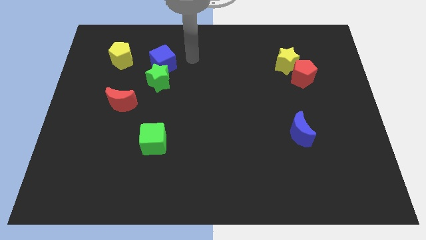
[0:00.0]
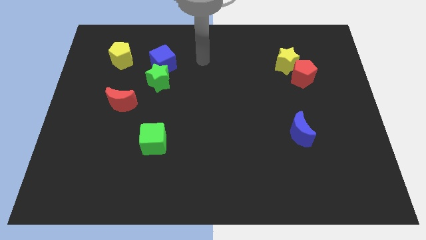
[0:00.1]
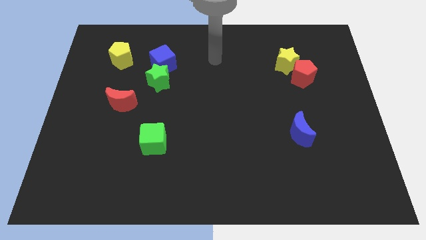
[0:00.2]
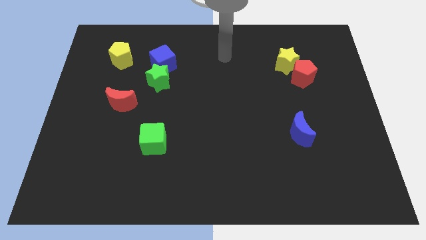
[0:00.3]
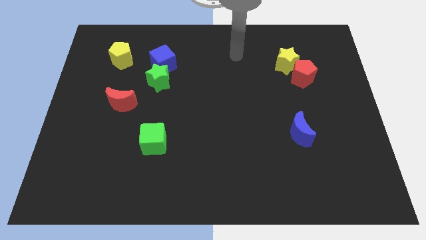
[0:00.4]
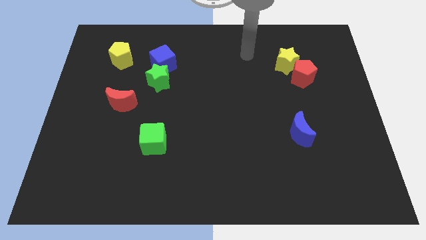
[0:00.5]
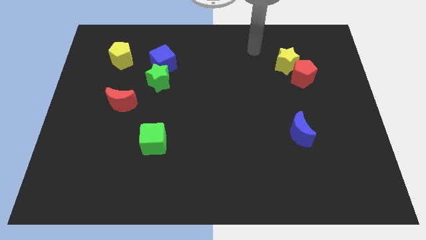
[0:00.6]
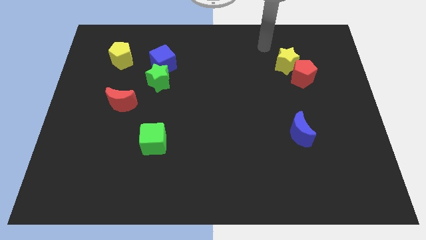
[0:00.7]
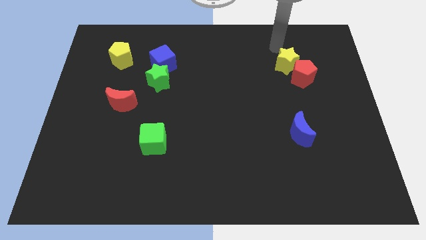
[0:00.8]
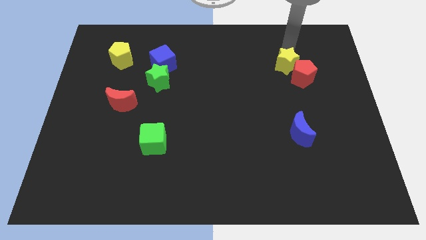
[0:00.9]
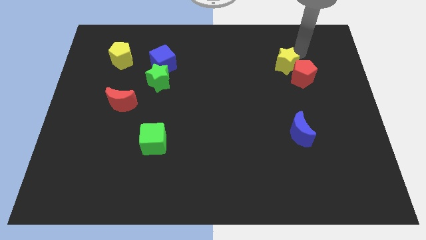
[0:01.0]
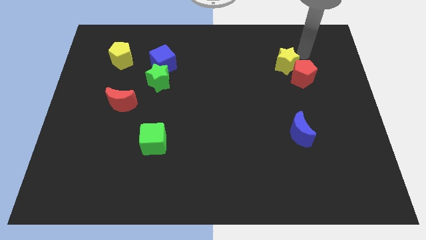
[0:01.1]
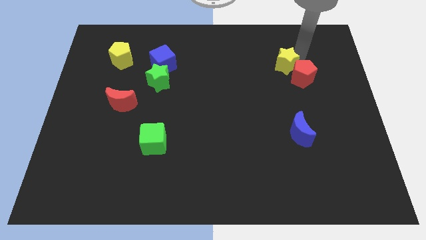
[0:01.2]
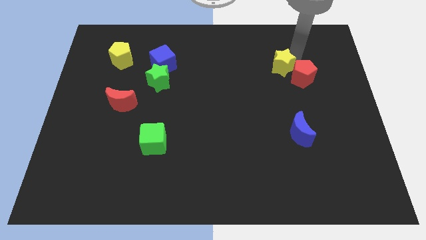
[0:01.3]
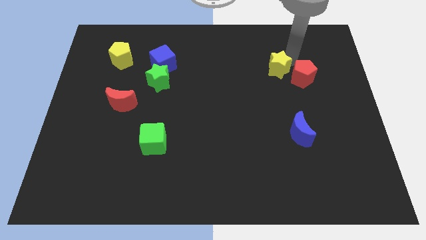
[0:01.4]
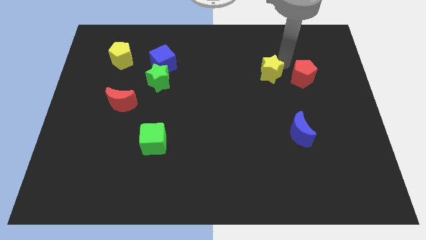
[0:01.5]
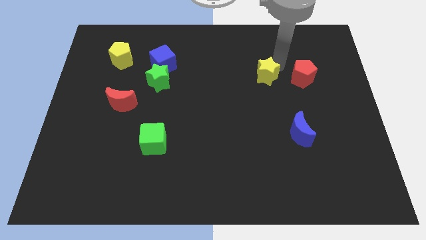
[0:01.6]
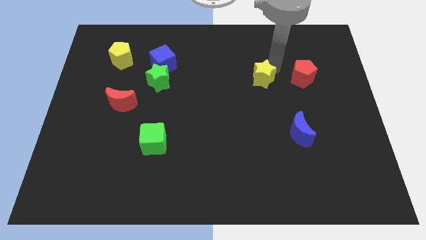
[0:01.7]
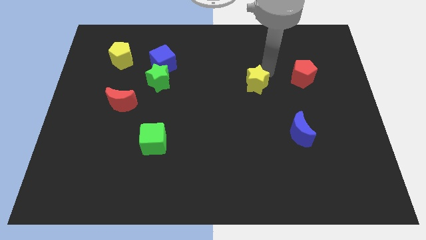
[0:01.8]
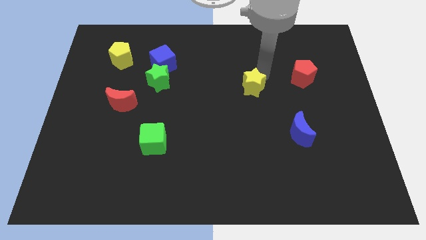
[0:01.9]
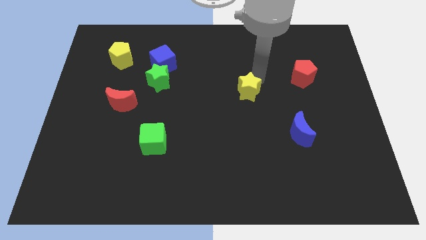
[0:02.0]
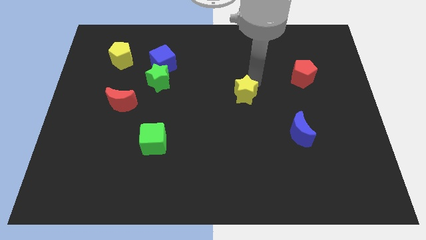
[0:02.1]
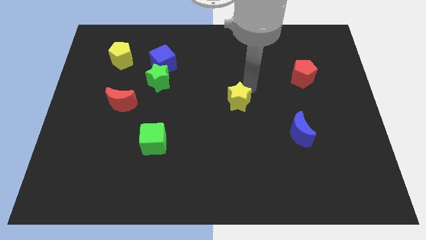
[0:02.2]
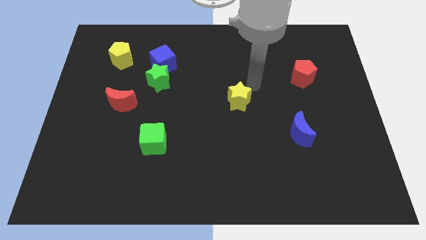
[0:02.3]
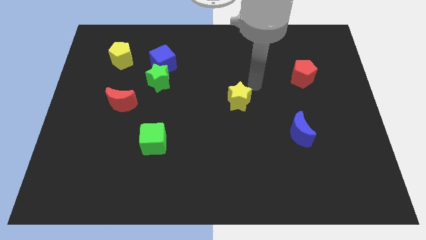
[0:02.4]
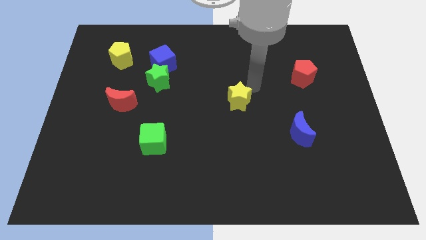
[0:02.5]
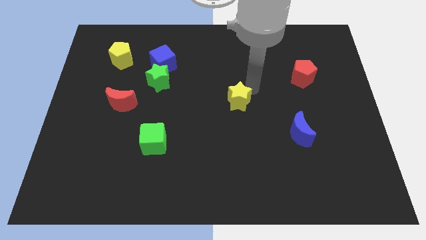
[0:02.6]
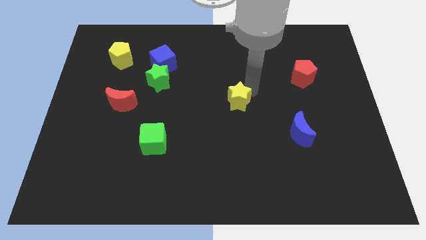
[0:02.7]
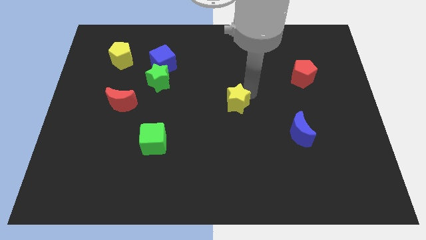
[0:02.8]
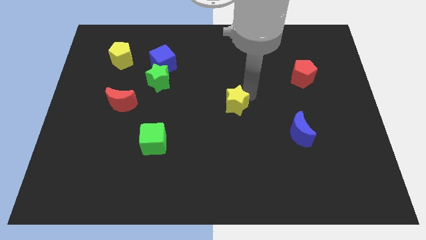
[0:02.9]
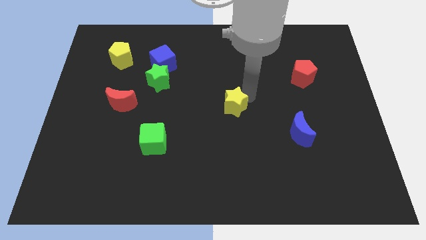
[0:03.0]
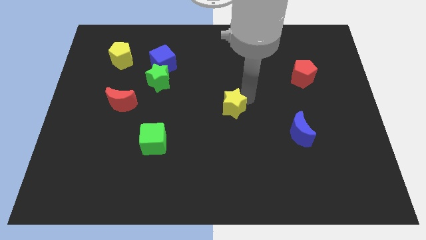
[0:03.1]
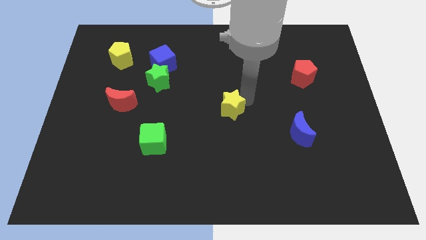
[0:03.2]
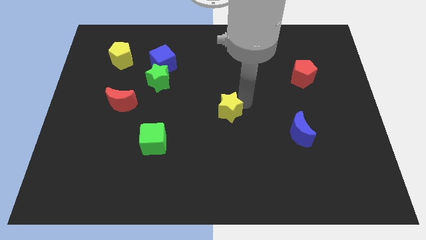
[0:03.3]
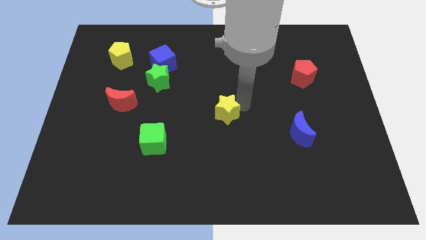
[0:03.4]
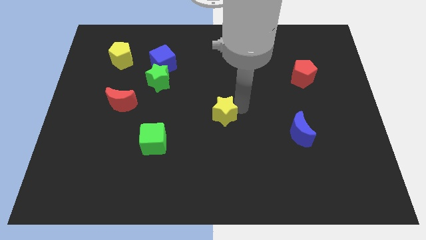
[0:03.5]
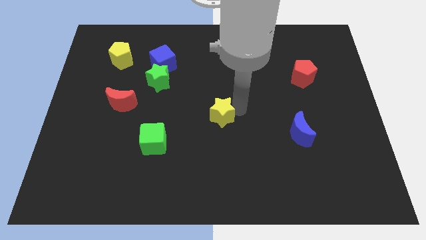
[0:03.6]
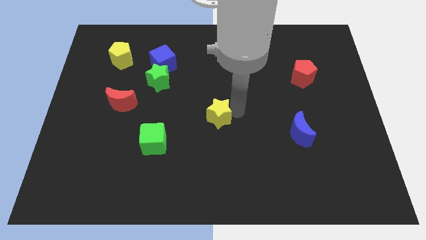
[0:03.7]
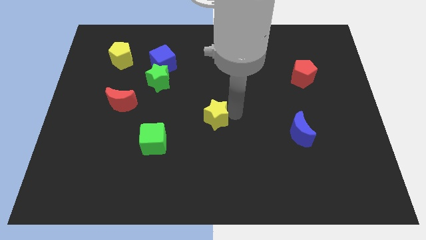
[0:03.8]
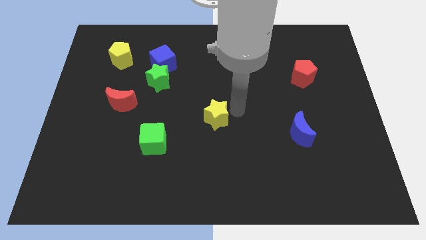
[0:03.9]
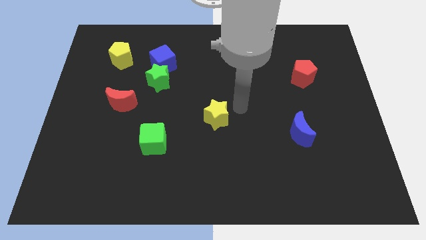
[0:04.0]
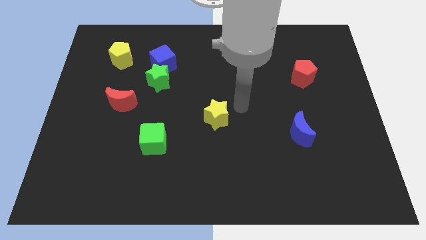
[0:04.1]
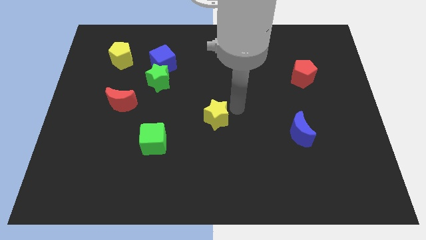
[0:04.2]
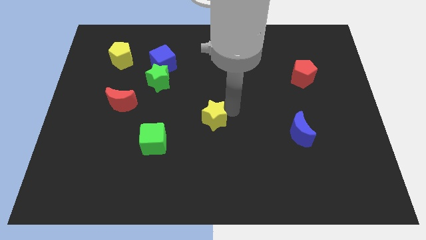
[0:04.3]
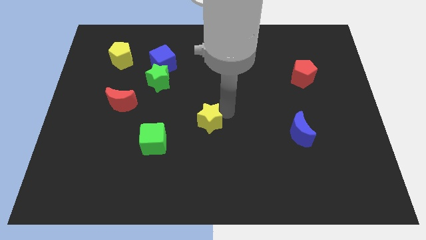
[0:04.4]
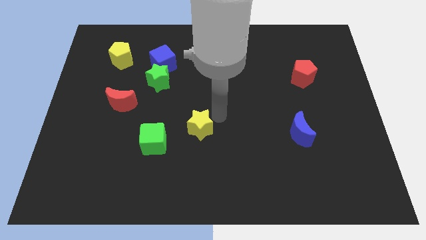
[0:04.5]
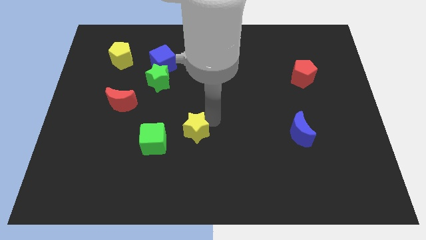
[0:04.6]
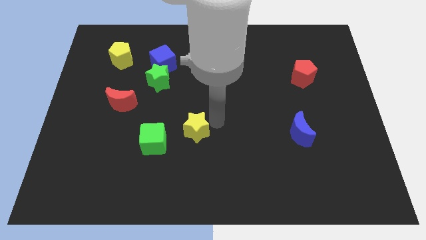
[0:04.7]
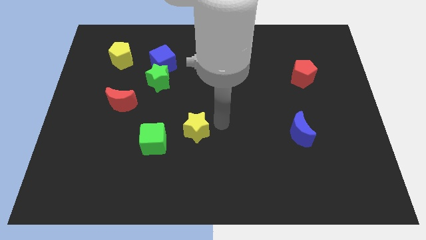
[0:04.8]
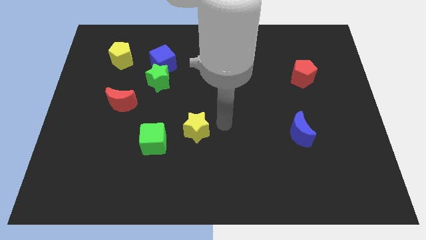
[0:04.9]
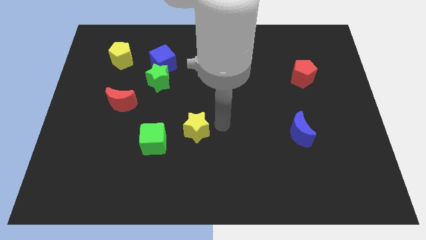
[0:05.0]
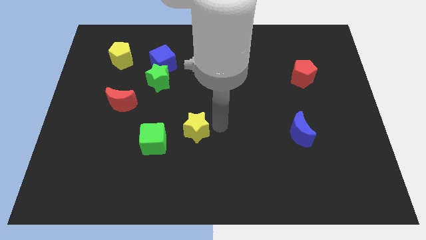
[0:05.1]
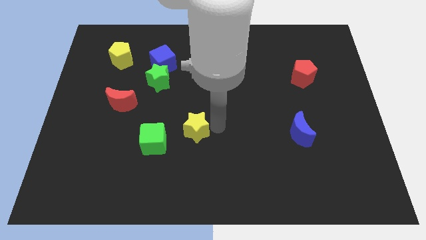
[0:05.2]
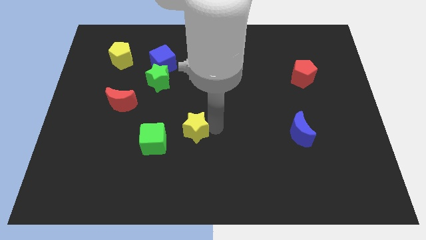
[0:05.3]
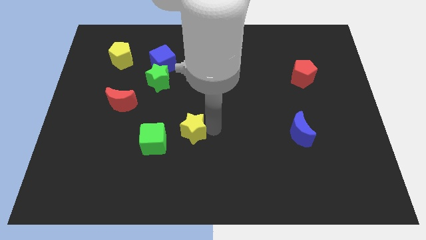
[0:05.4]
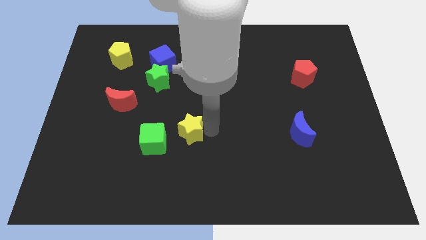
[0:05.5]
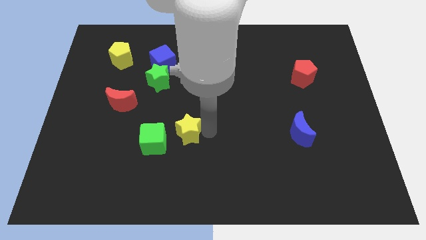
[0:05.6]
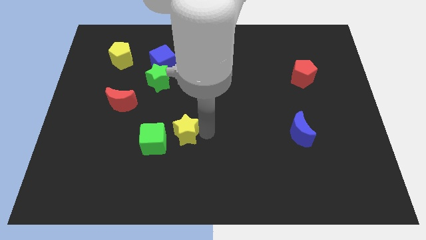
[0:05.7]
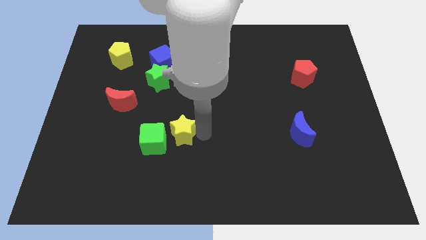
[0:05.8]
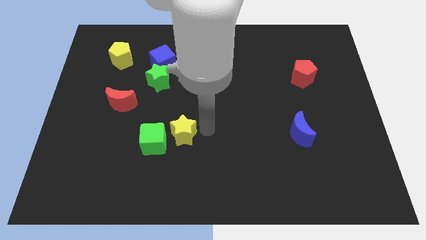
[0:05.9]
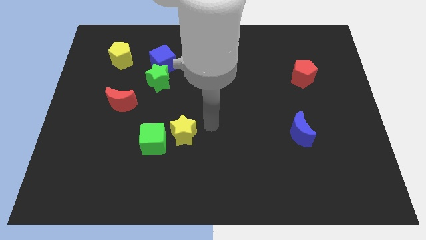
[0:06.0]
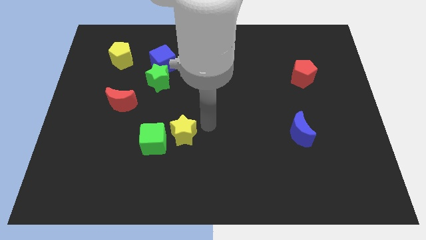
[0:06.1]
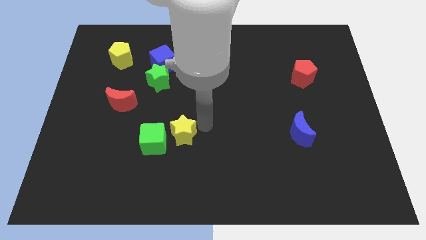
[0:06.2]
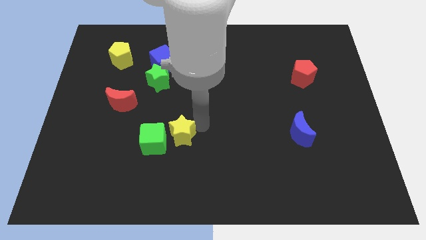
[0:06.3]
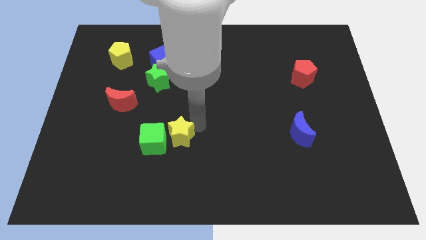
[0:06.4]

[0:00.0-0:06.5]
put the yellow star towards the green cube
